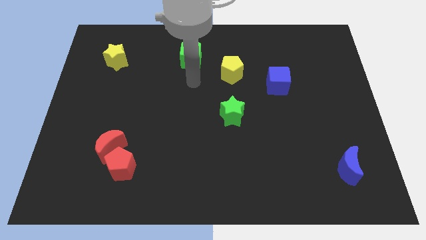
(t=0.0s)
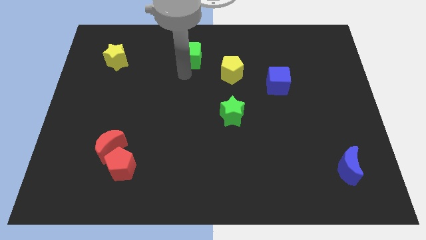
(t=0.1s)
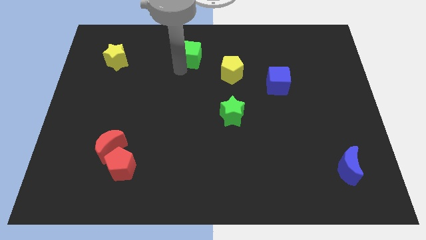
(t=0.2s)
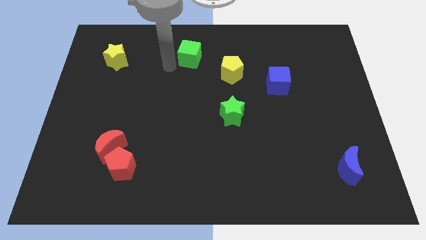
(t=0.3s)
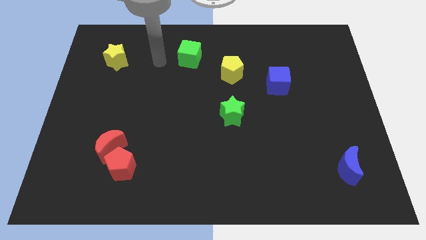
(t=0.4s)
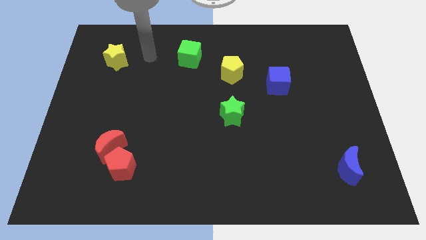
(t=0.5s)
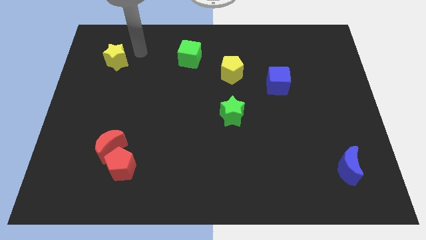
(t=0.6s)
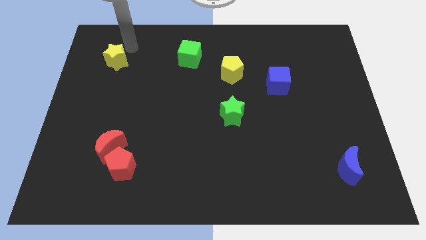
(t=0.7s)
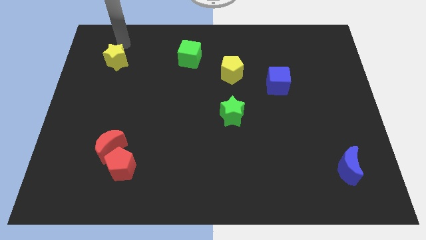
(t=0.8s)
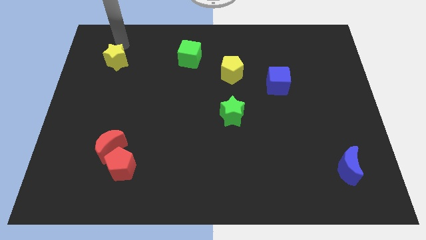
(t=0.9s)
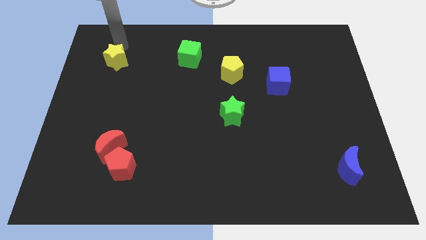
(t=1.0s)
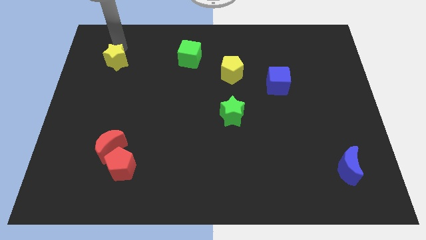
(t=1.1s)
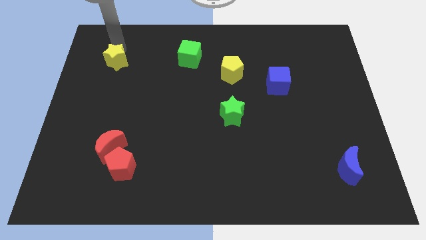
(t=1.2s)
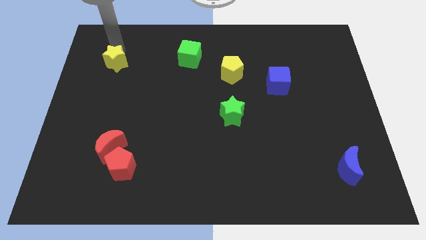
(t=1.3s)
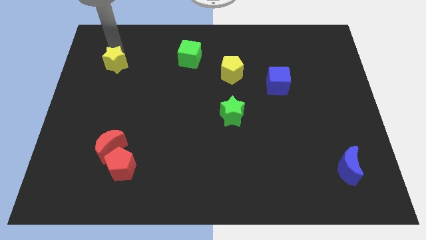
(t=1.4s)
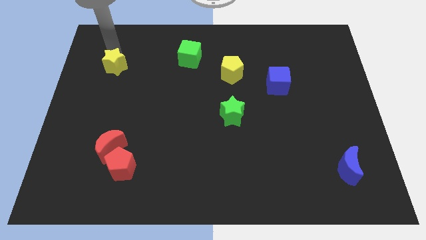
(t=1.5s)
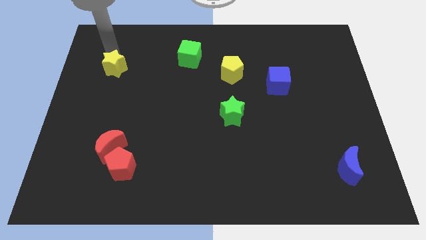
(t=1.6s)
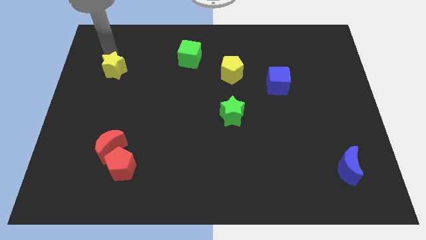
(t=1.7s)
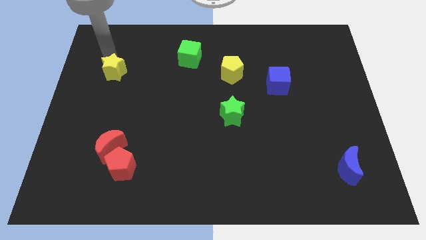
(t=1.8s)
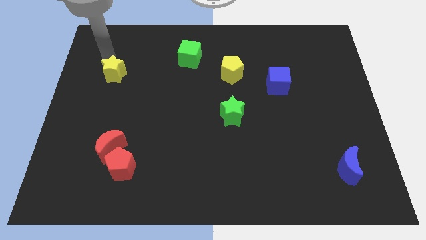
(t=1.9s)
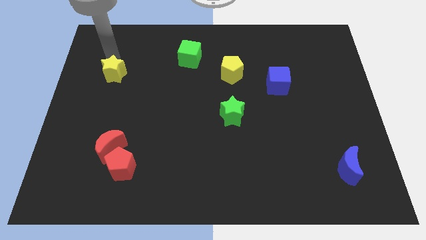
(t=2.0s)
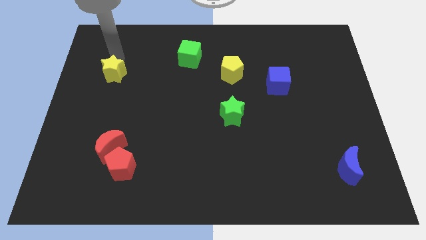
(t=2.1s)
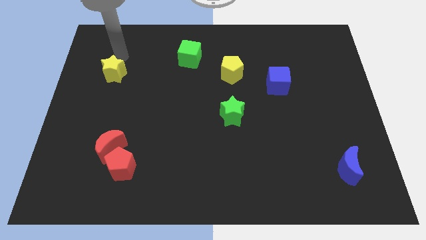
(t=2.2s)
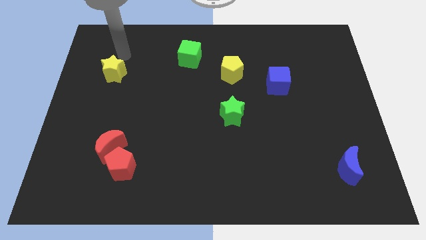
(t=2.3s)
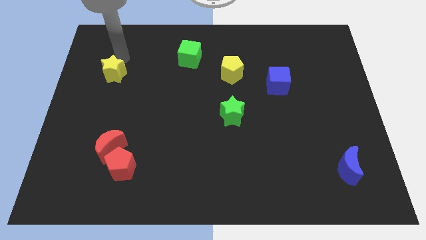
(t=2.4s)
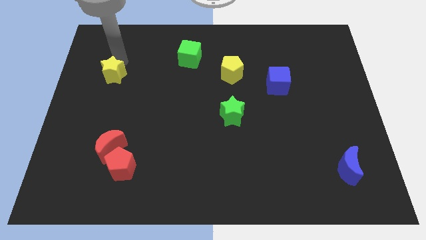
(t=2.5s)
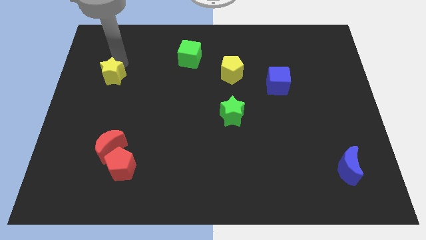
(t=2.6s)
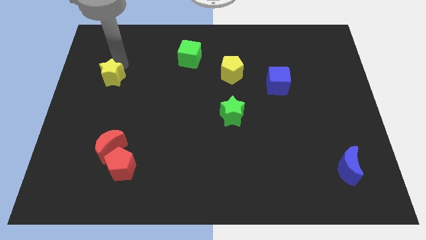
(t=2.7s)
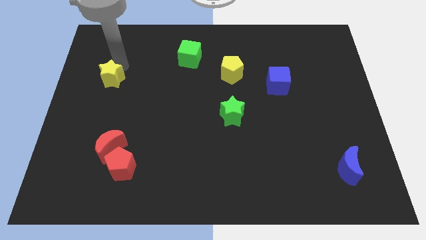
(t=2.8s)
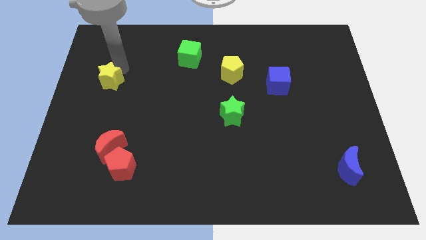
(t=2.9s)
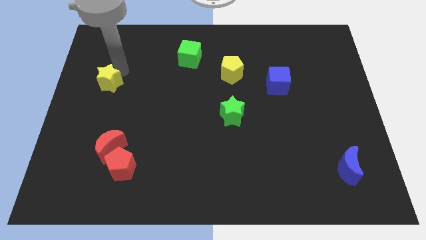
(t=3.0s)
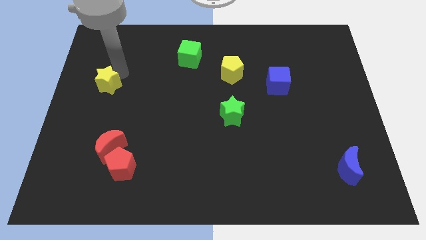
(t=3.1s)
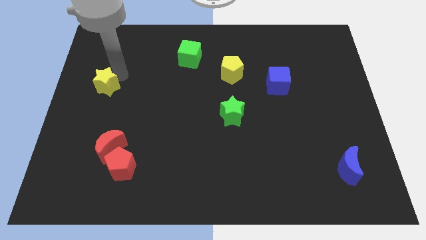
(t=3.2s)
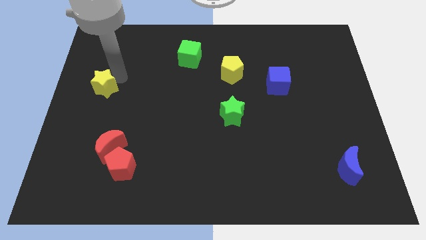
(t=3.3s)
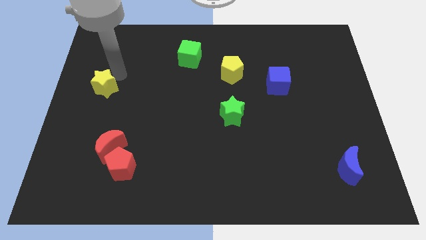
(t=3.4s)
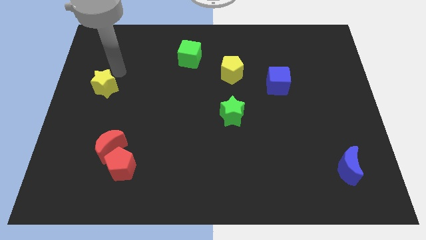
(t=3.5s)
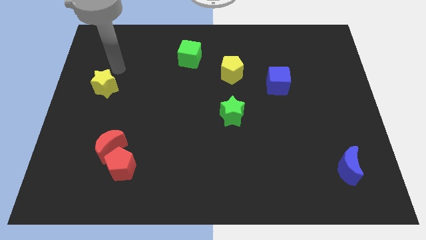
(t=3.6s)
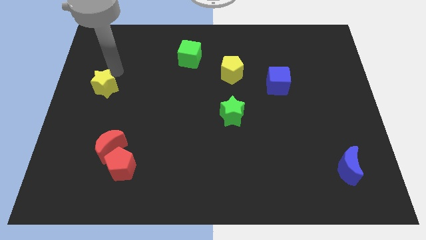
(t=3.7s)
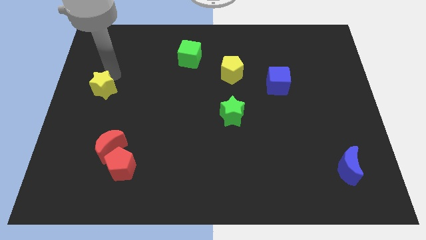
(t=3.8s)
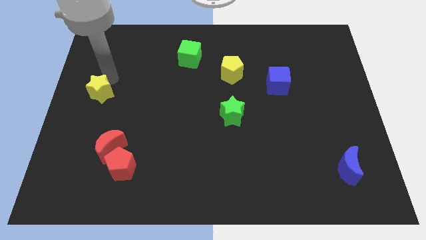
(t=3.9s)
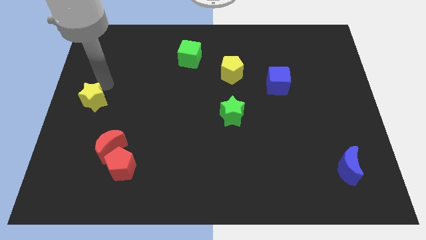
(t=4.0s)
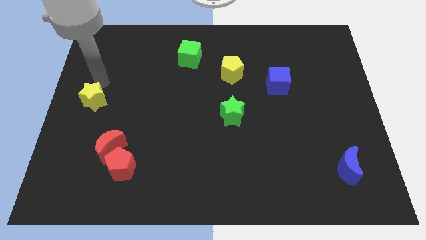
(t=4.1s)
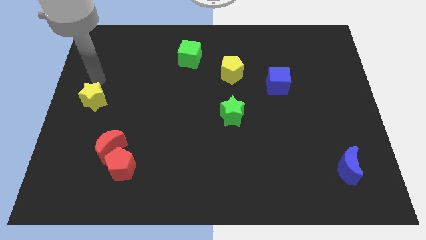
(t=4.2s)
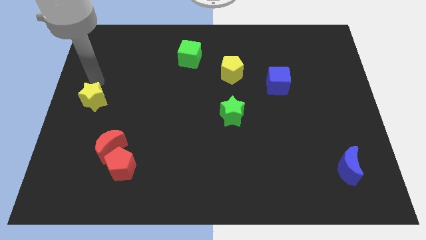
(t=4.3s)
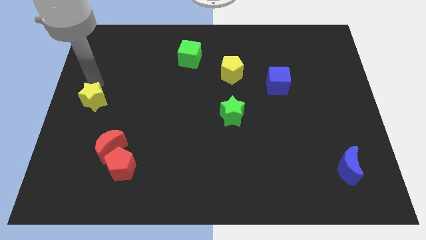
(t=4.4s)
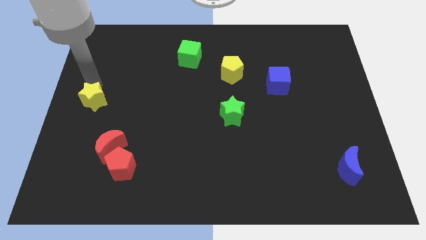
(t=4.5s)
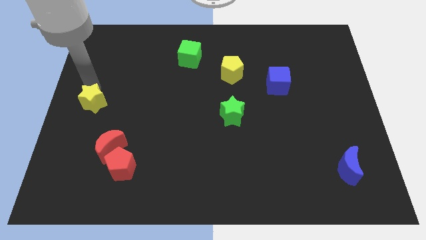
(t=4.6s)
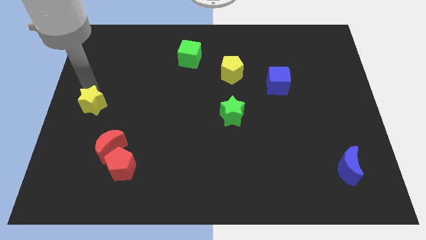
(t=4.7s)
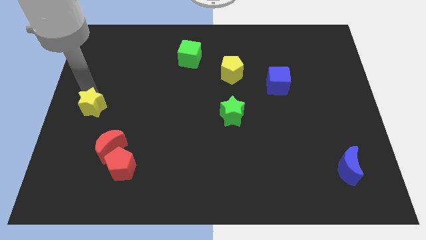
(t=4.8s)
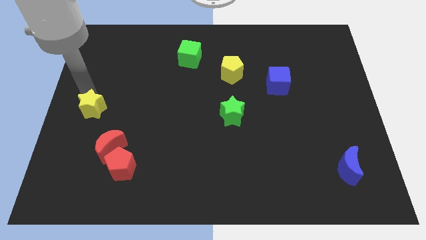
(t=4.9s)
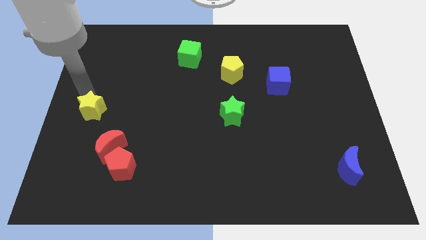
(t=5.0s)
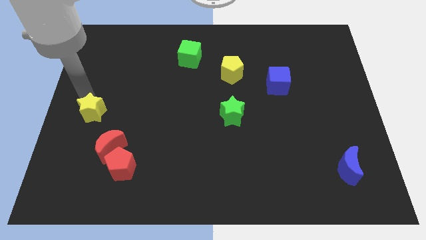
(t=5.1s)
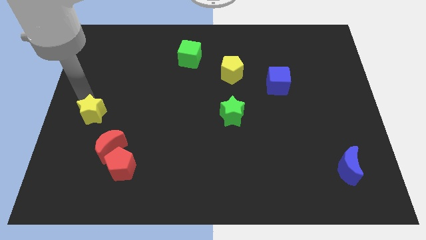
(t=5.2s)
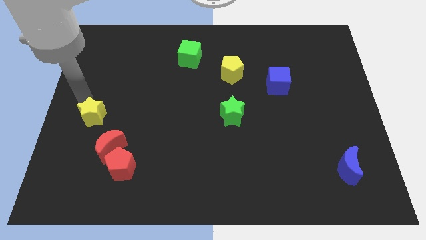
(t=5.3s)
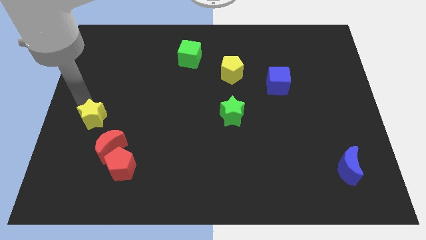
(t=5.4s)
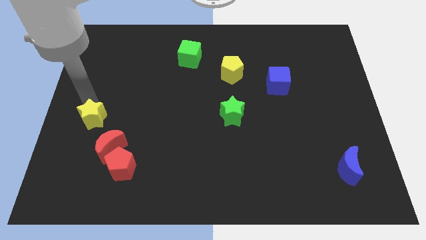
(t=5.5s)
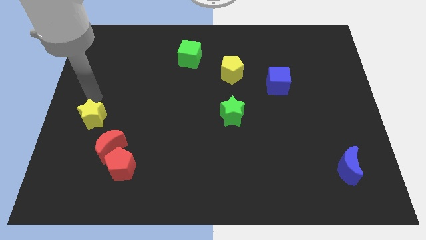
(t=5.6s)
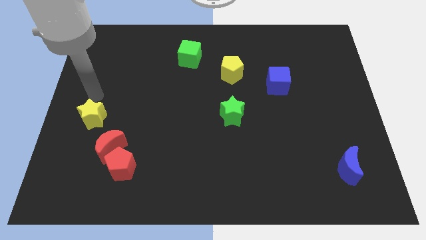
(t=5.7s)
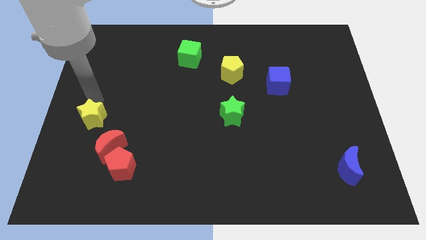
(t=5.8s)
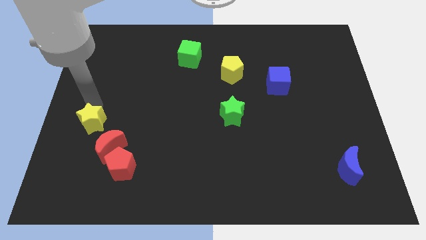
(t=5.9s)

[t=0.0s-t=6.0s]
push the yellow star down

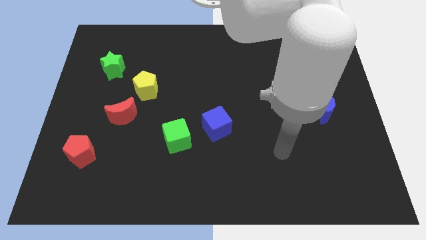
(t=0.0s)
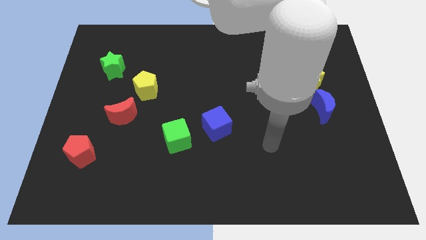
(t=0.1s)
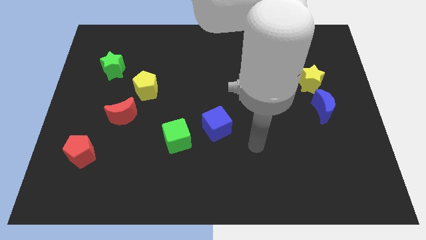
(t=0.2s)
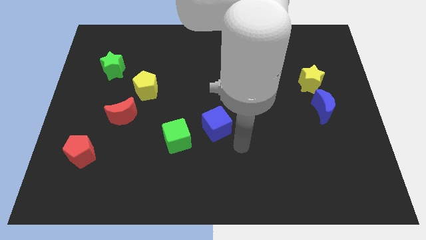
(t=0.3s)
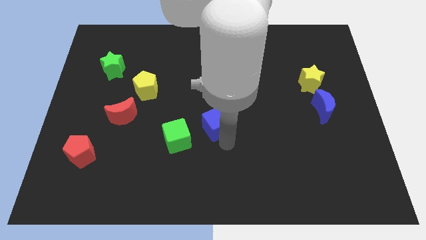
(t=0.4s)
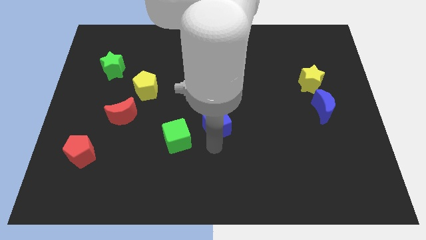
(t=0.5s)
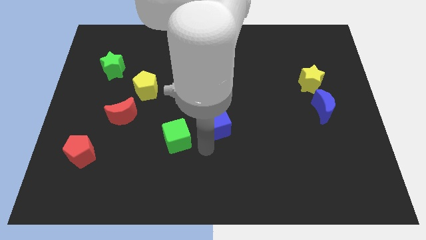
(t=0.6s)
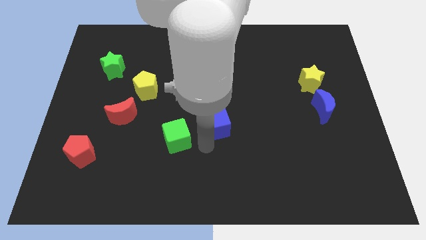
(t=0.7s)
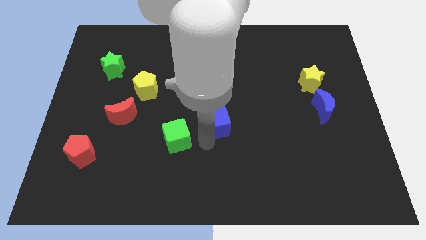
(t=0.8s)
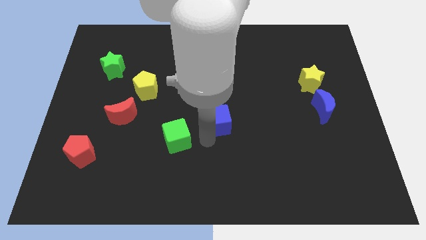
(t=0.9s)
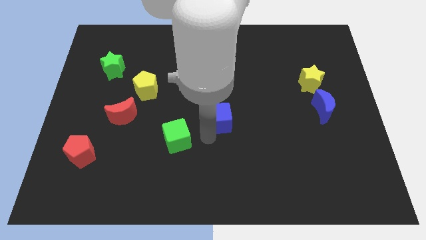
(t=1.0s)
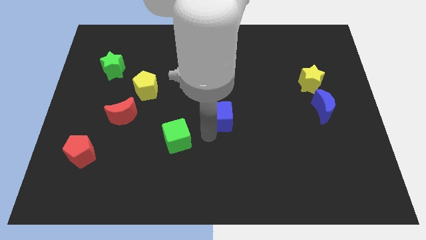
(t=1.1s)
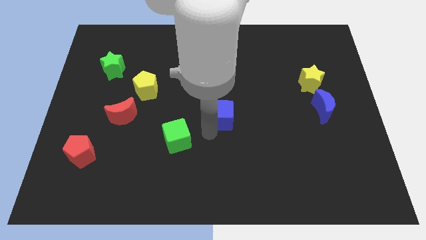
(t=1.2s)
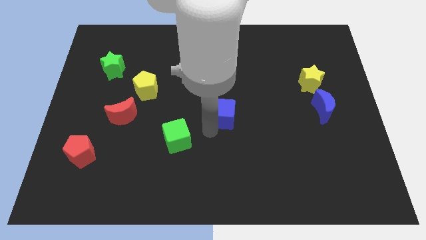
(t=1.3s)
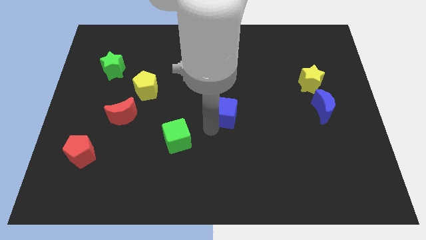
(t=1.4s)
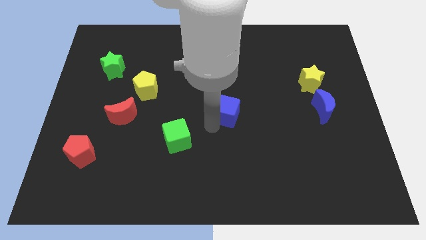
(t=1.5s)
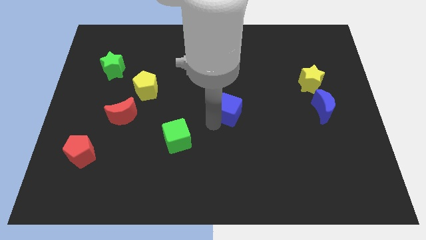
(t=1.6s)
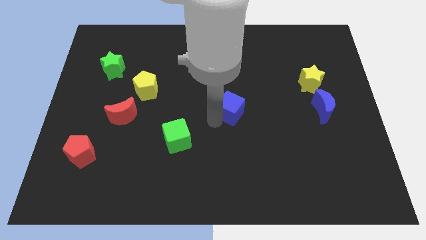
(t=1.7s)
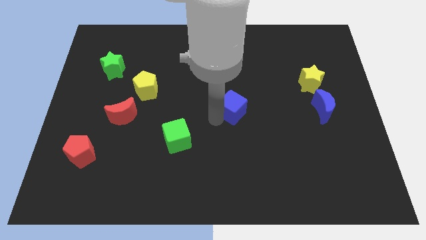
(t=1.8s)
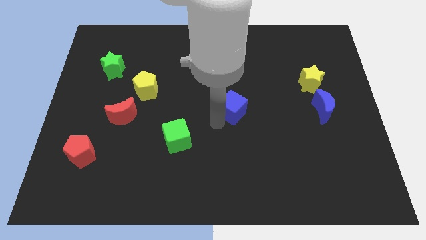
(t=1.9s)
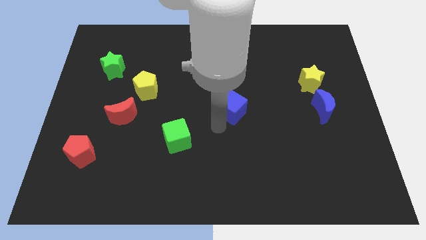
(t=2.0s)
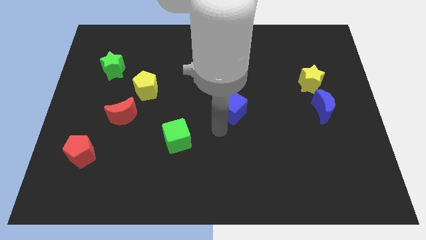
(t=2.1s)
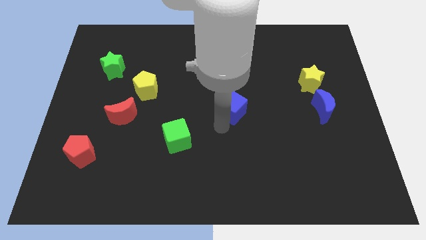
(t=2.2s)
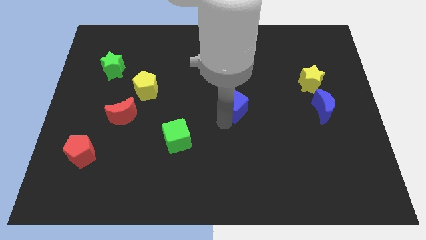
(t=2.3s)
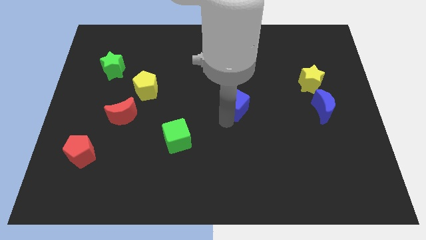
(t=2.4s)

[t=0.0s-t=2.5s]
push the blue cube a little bit upwards and to the right diagonally
